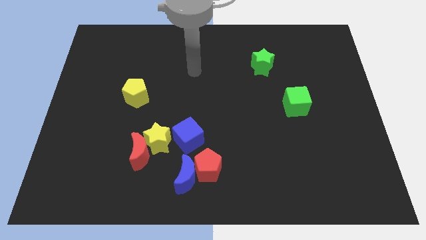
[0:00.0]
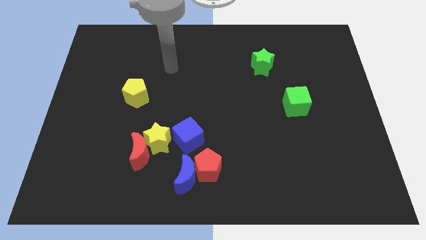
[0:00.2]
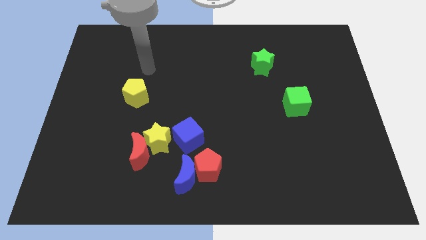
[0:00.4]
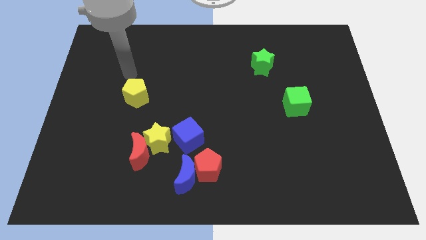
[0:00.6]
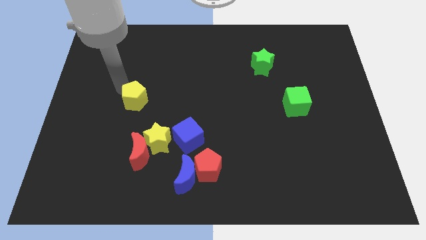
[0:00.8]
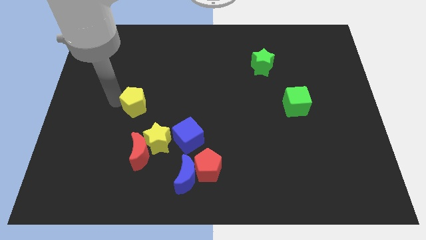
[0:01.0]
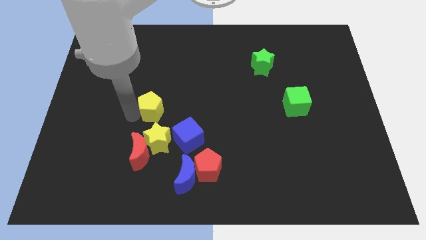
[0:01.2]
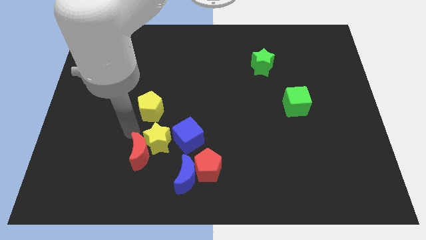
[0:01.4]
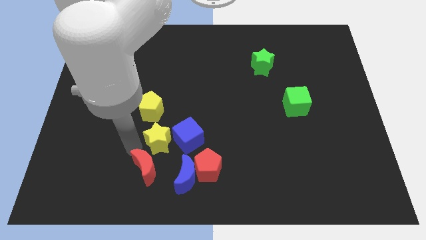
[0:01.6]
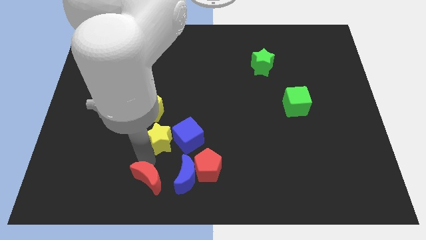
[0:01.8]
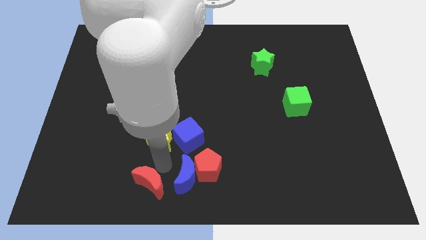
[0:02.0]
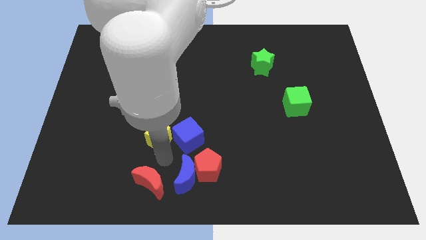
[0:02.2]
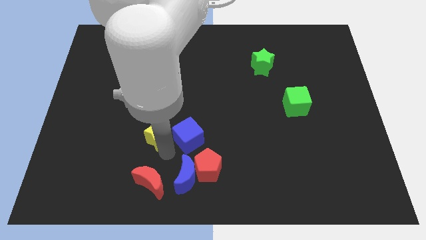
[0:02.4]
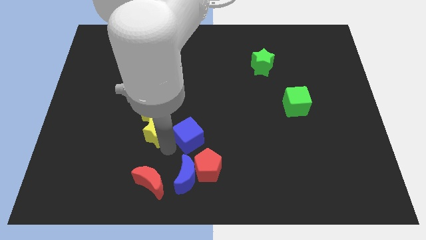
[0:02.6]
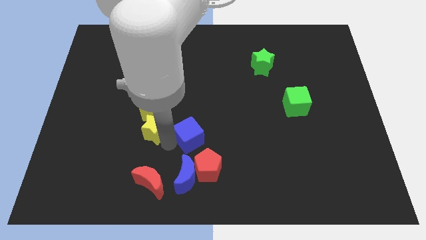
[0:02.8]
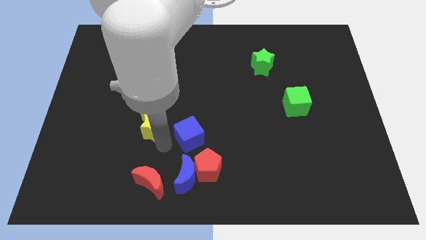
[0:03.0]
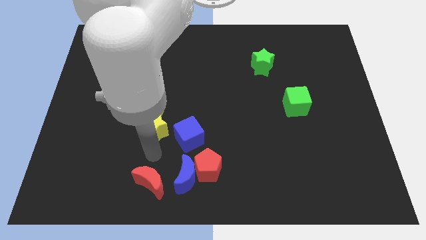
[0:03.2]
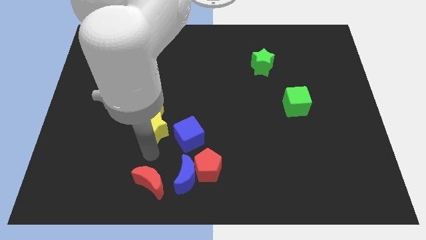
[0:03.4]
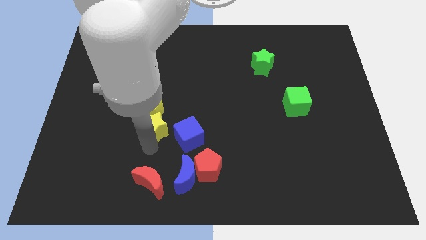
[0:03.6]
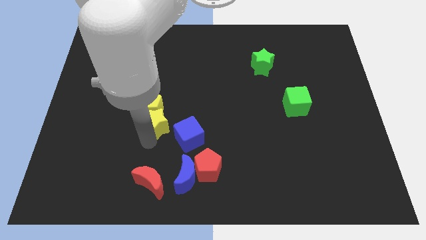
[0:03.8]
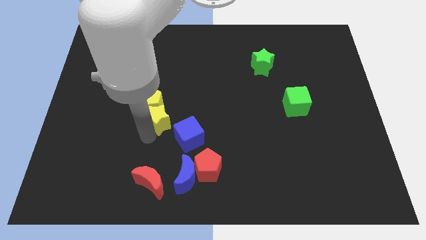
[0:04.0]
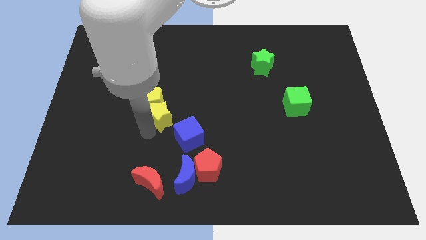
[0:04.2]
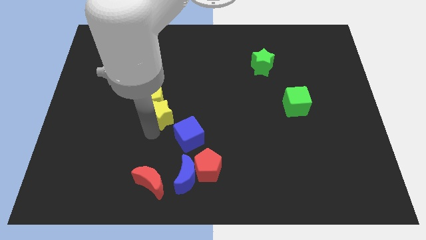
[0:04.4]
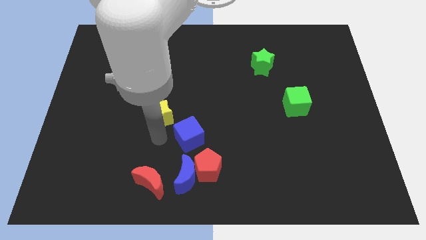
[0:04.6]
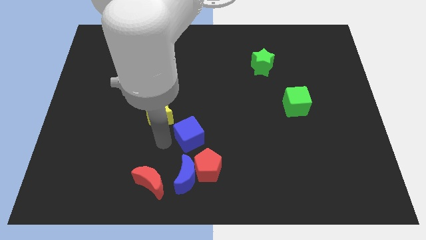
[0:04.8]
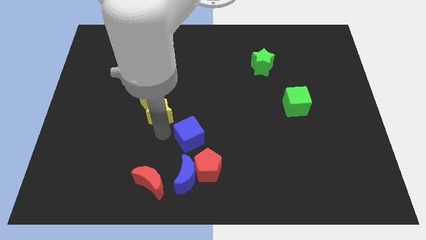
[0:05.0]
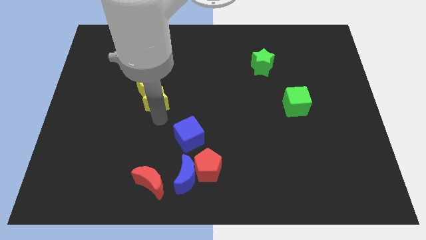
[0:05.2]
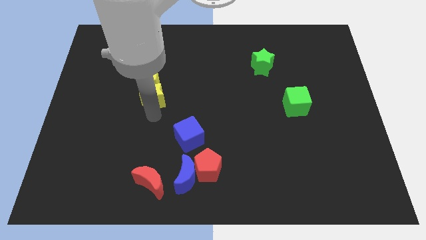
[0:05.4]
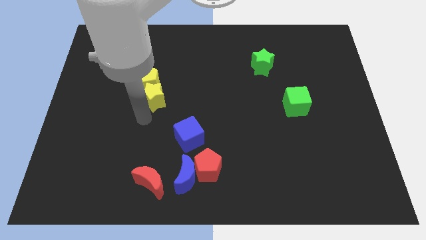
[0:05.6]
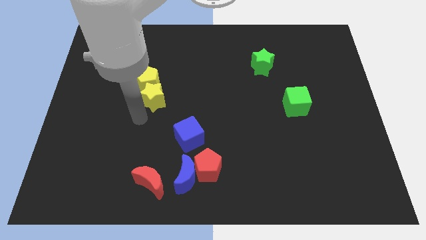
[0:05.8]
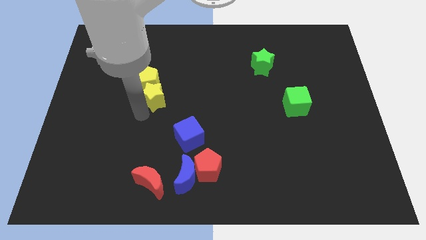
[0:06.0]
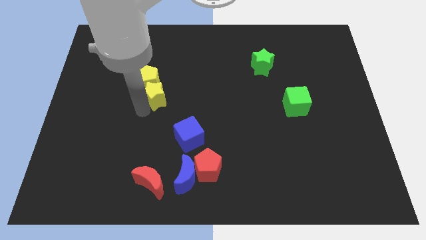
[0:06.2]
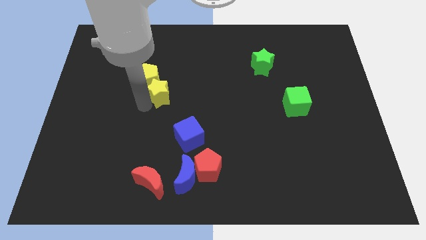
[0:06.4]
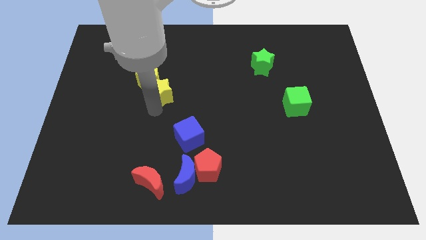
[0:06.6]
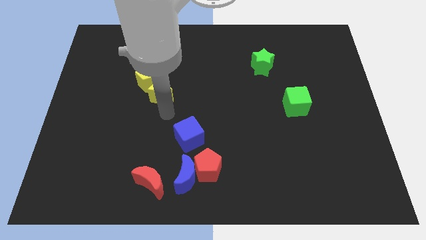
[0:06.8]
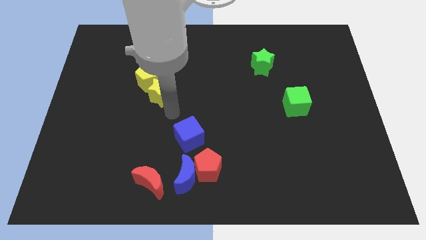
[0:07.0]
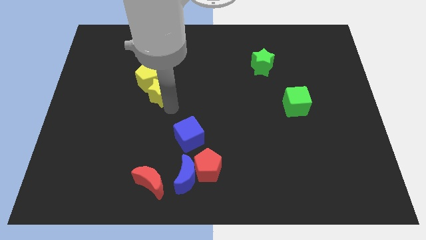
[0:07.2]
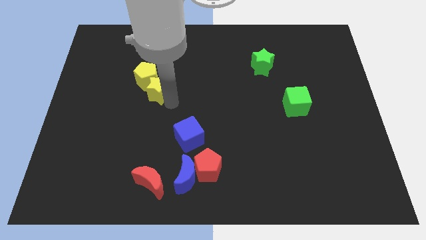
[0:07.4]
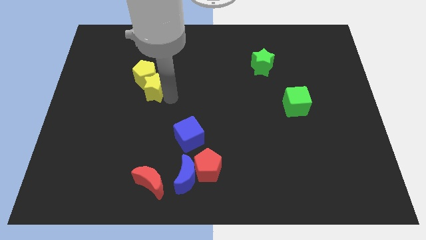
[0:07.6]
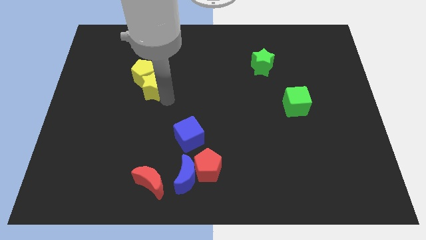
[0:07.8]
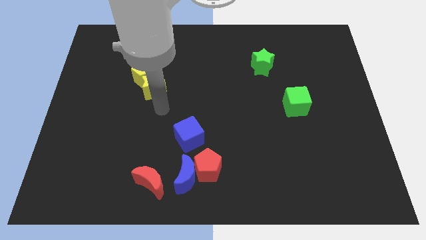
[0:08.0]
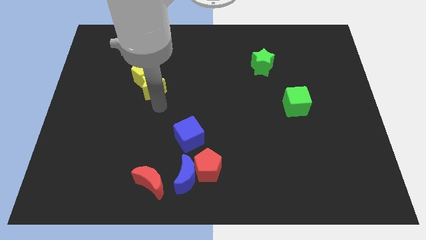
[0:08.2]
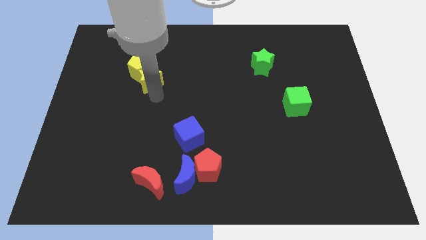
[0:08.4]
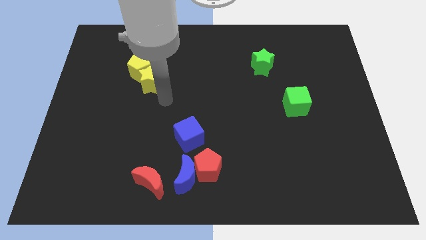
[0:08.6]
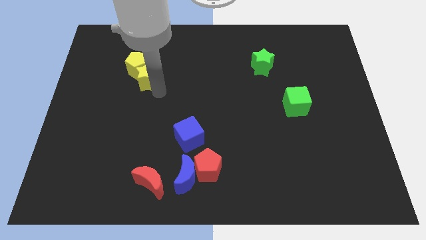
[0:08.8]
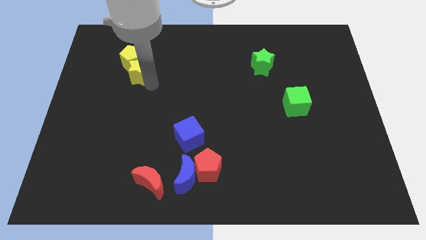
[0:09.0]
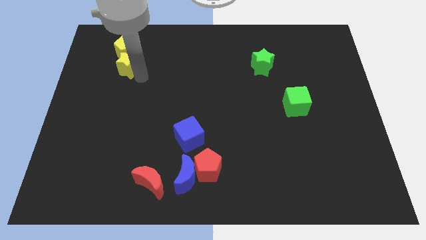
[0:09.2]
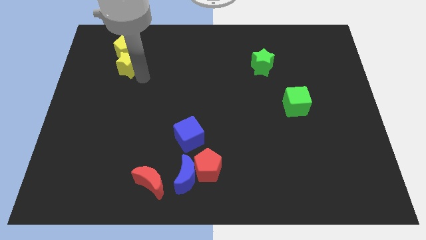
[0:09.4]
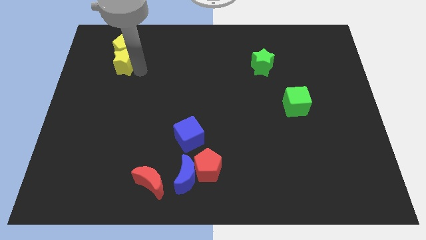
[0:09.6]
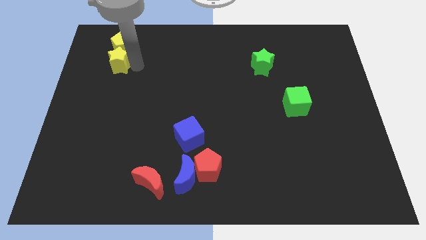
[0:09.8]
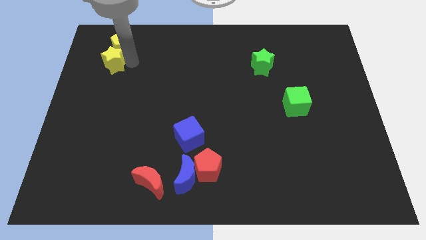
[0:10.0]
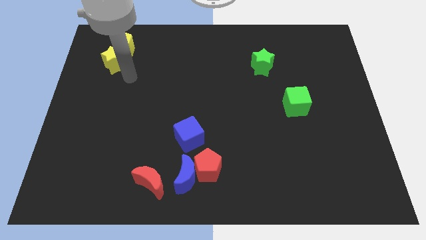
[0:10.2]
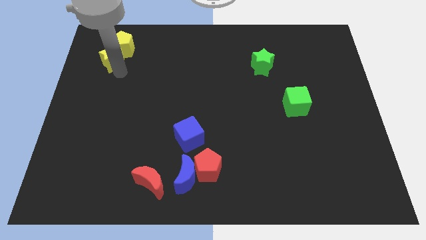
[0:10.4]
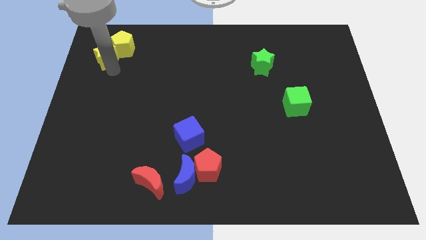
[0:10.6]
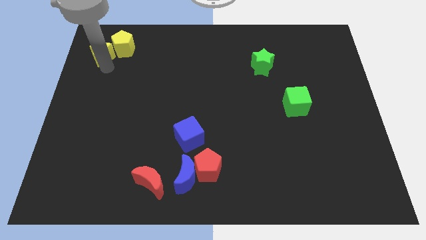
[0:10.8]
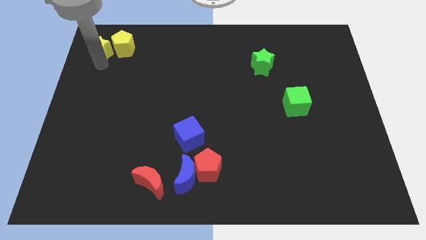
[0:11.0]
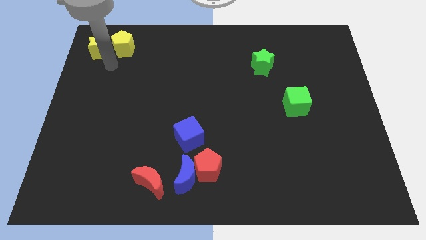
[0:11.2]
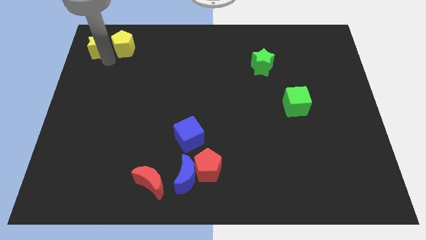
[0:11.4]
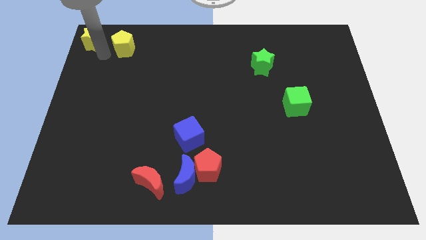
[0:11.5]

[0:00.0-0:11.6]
push the yellow star to the top left
